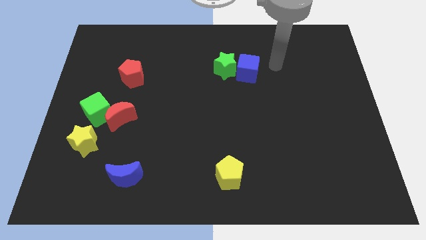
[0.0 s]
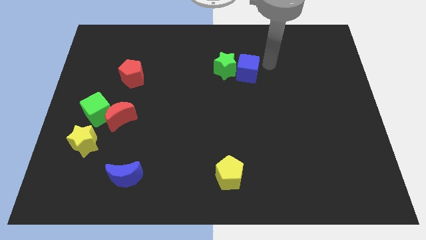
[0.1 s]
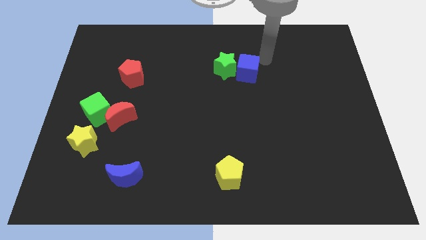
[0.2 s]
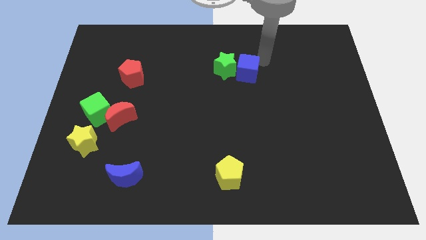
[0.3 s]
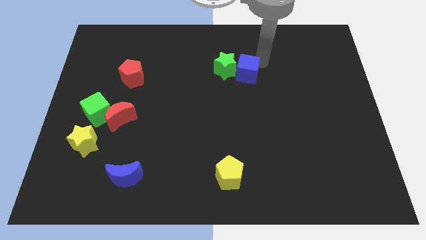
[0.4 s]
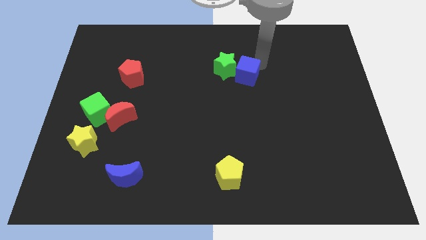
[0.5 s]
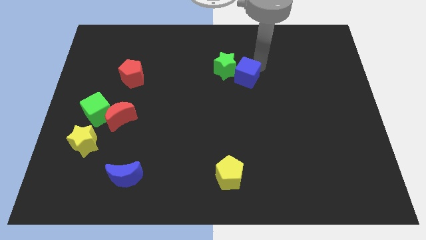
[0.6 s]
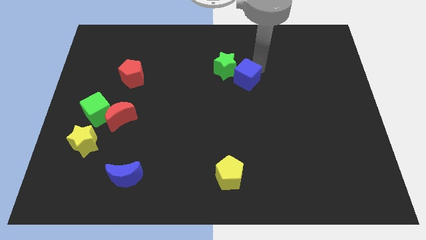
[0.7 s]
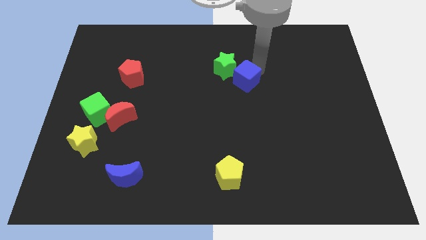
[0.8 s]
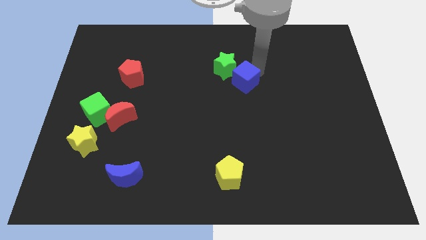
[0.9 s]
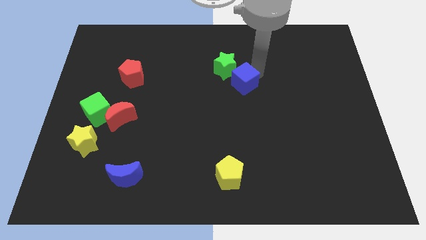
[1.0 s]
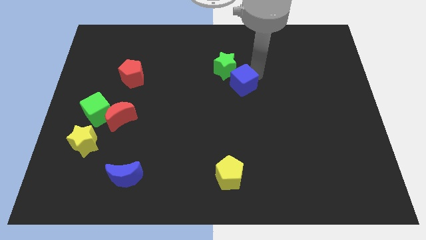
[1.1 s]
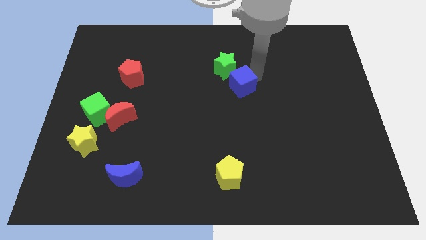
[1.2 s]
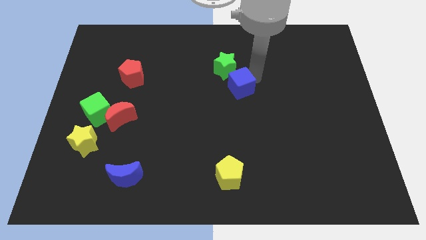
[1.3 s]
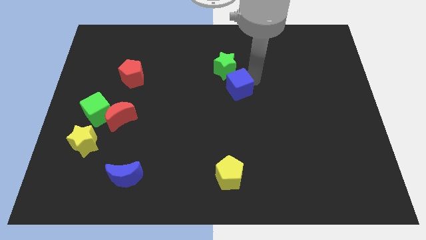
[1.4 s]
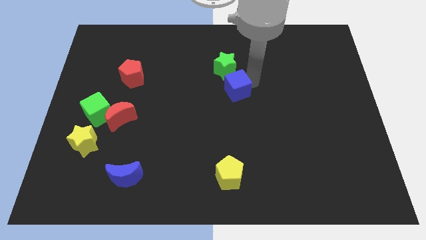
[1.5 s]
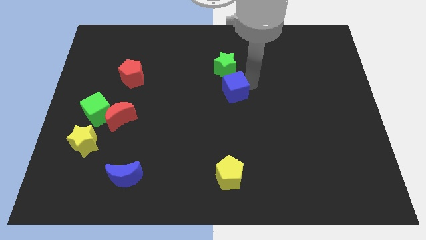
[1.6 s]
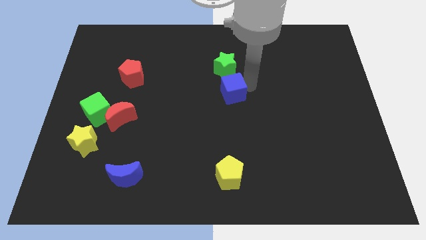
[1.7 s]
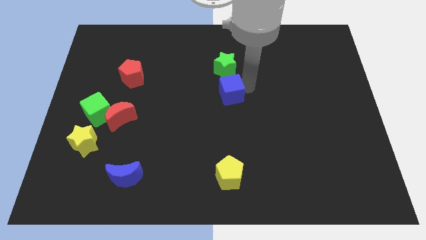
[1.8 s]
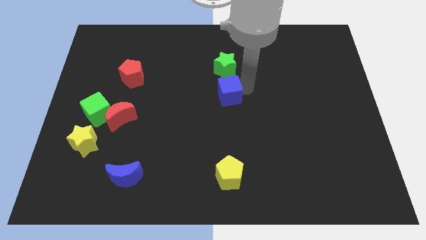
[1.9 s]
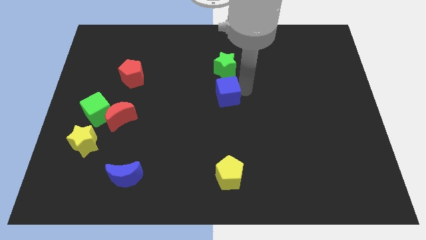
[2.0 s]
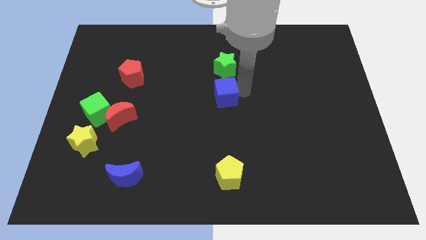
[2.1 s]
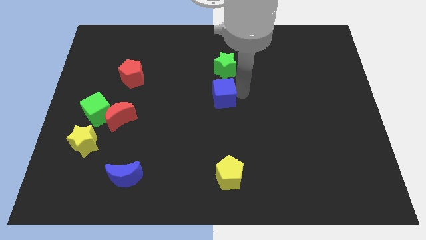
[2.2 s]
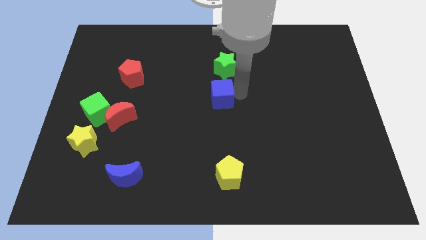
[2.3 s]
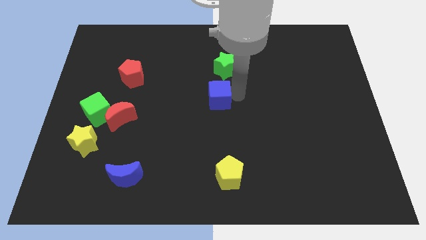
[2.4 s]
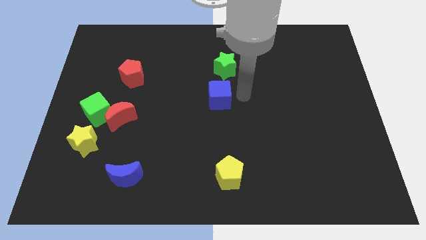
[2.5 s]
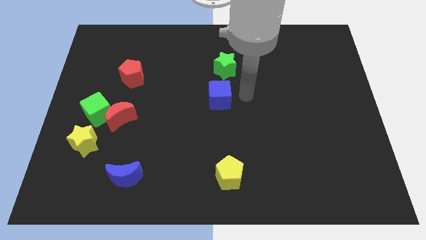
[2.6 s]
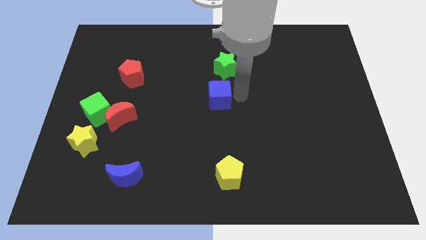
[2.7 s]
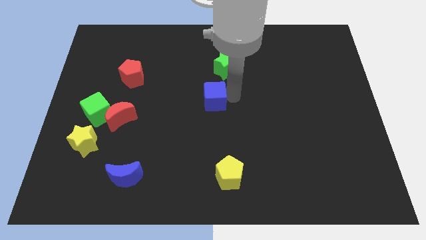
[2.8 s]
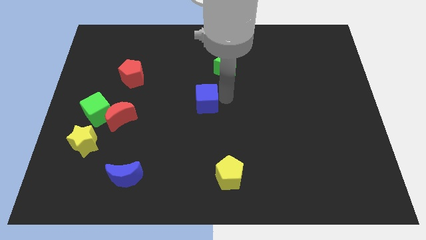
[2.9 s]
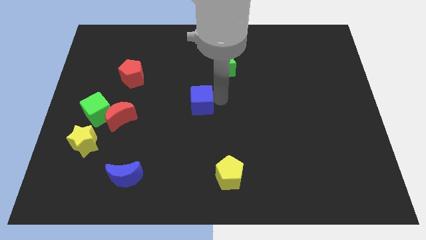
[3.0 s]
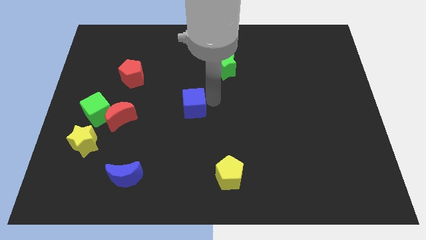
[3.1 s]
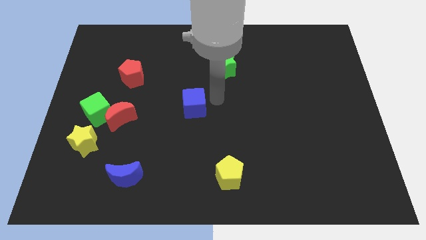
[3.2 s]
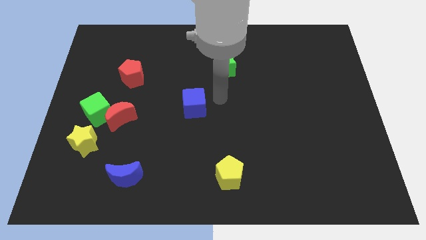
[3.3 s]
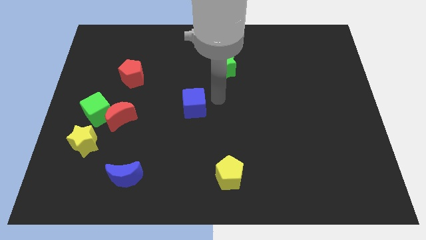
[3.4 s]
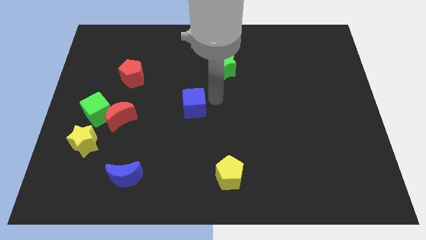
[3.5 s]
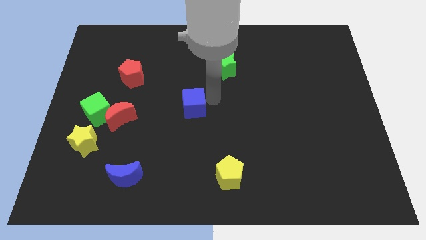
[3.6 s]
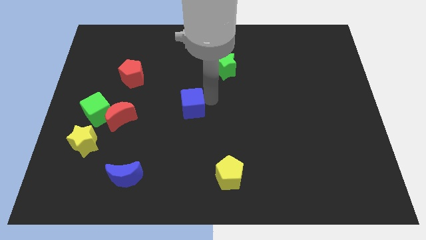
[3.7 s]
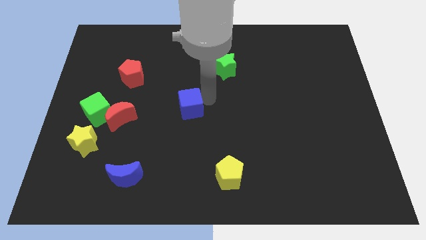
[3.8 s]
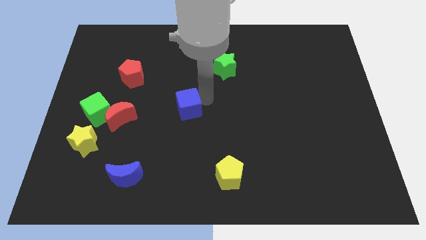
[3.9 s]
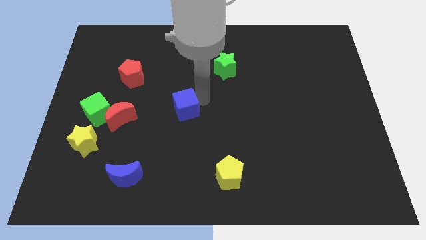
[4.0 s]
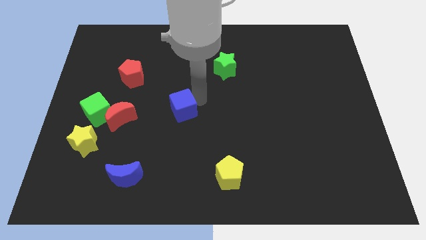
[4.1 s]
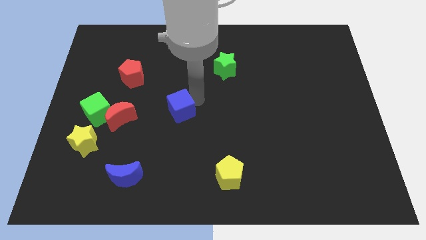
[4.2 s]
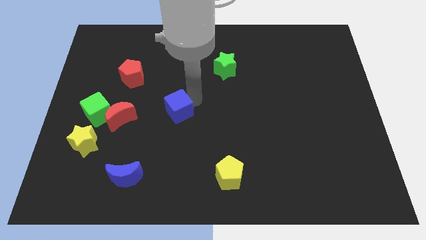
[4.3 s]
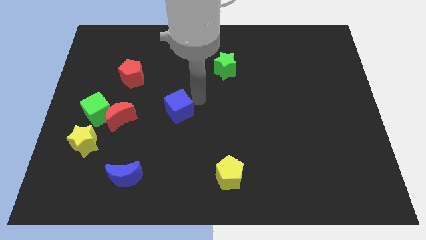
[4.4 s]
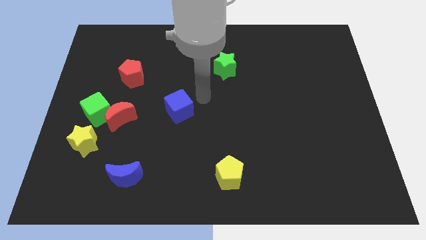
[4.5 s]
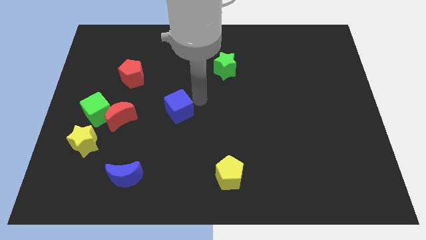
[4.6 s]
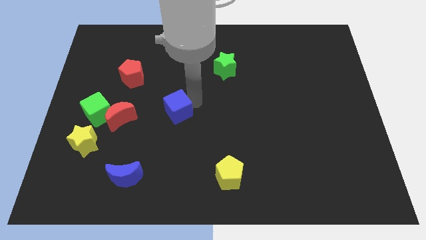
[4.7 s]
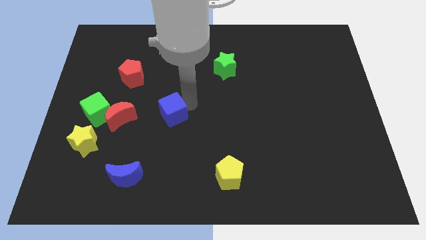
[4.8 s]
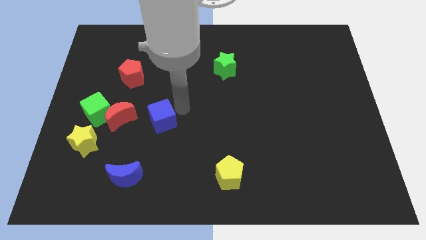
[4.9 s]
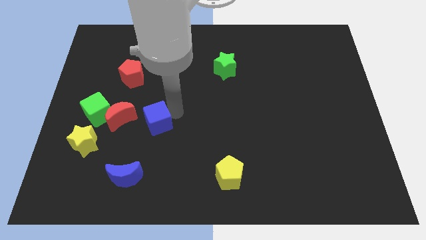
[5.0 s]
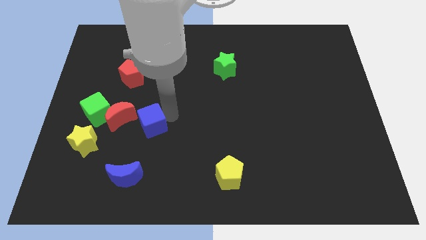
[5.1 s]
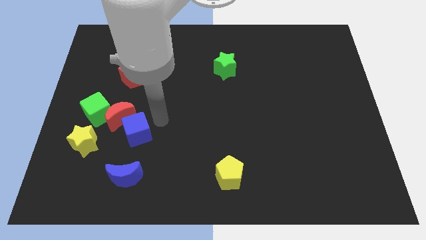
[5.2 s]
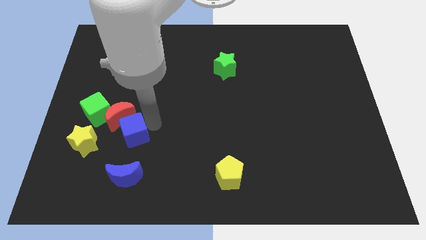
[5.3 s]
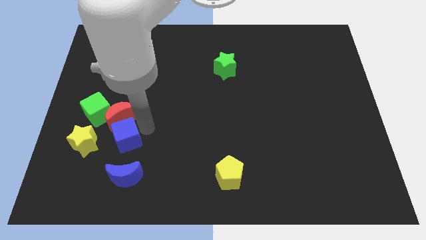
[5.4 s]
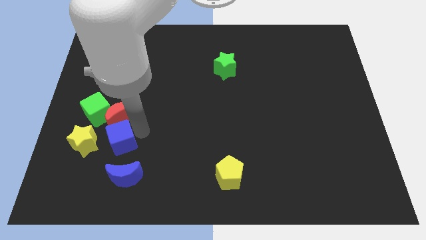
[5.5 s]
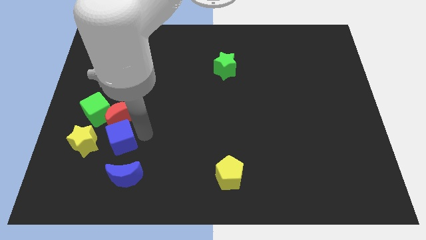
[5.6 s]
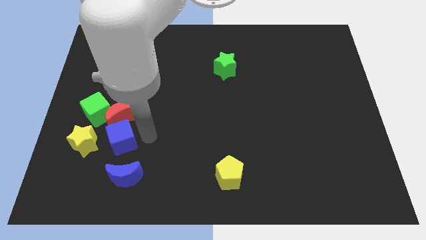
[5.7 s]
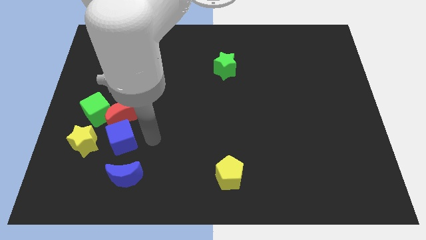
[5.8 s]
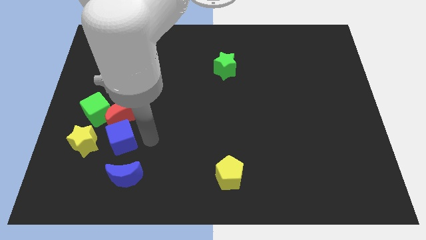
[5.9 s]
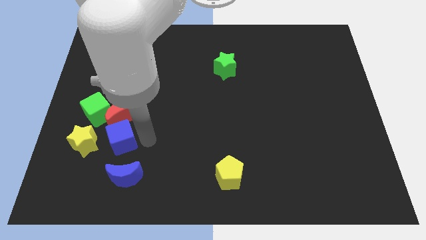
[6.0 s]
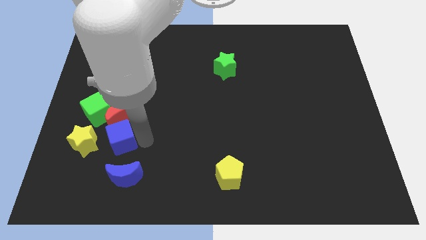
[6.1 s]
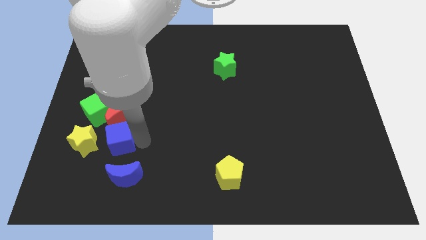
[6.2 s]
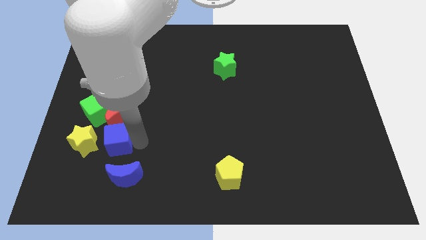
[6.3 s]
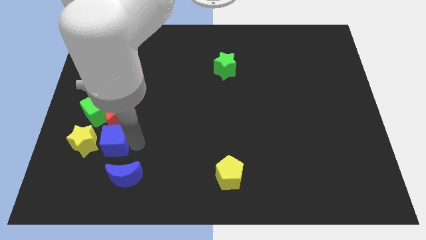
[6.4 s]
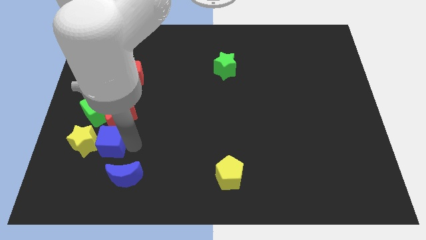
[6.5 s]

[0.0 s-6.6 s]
slide the blue cube to the yellow star

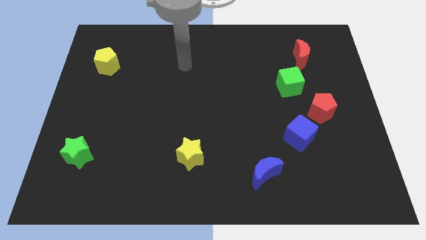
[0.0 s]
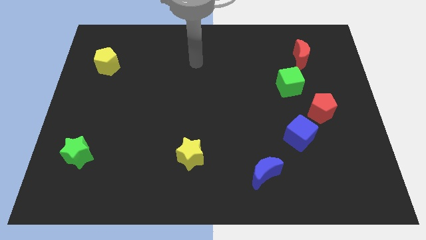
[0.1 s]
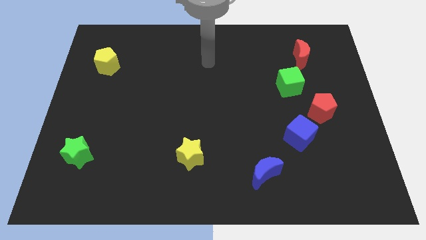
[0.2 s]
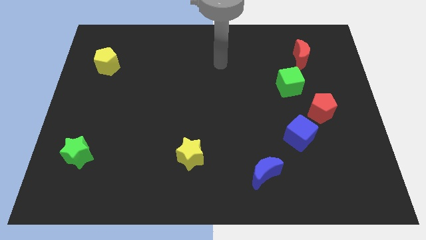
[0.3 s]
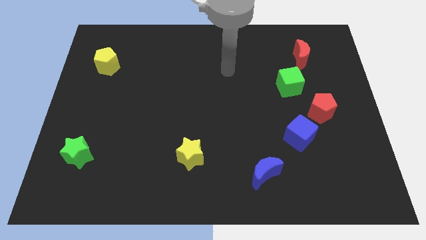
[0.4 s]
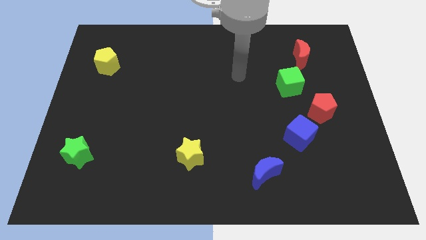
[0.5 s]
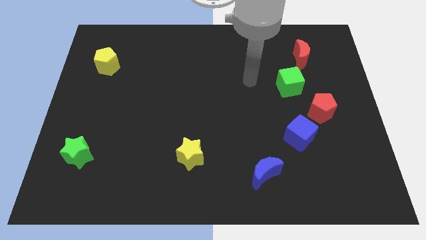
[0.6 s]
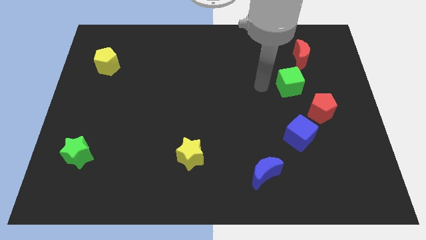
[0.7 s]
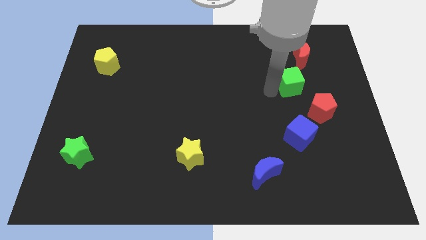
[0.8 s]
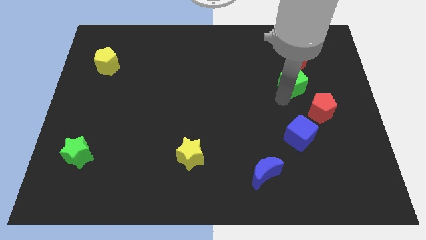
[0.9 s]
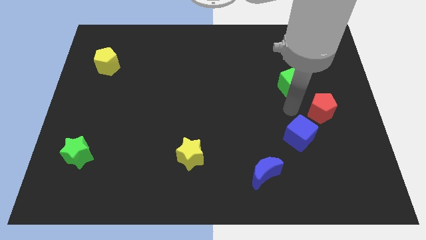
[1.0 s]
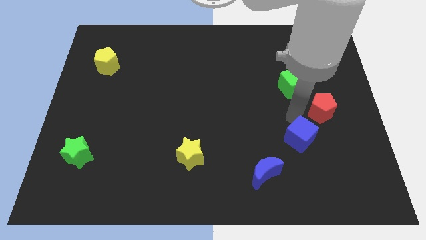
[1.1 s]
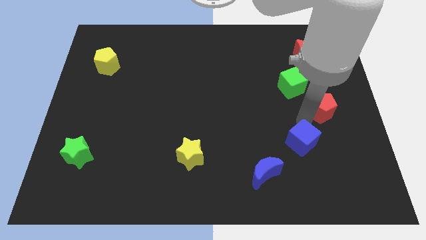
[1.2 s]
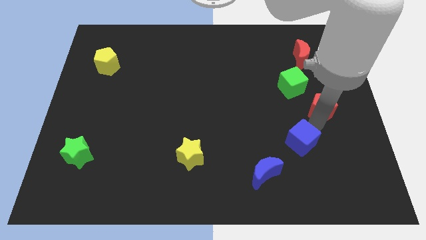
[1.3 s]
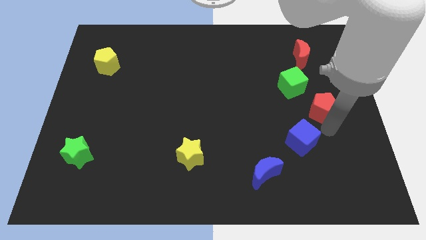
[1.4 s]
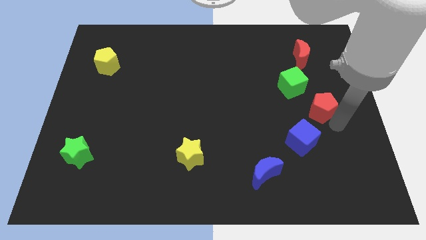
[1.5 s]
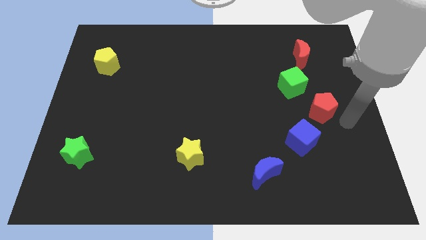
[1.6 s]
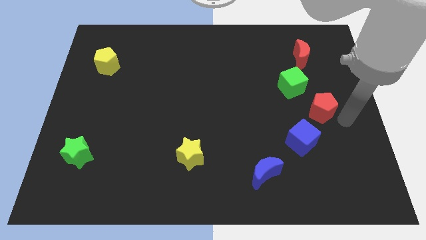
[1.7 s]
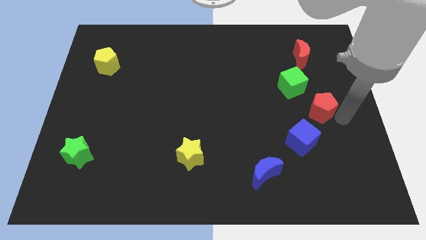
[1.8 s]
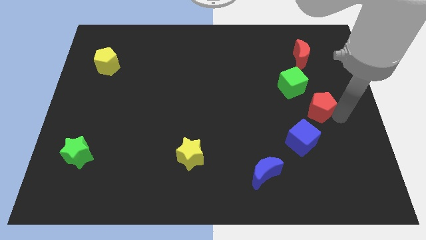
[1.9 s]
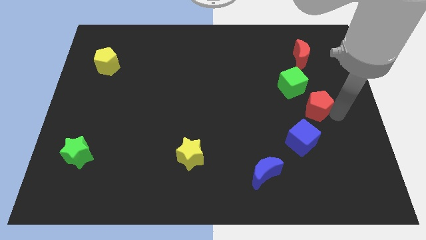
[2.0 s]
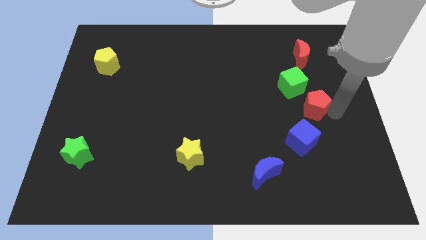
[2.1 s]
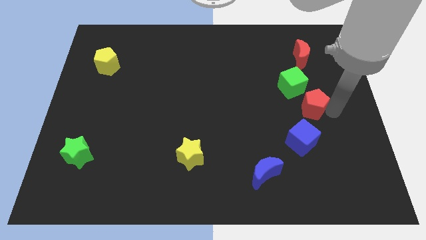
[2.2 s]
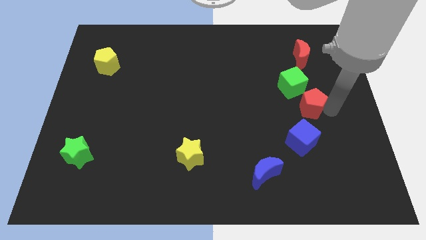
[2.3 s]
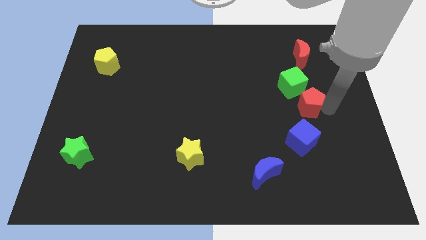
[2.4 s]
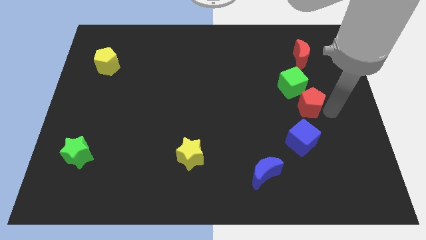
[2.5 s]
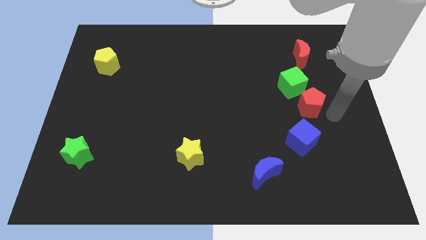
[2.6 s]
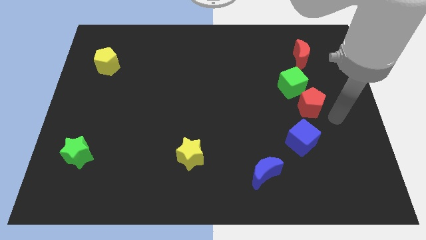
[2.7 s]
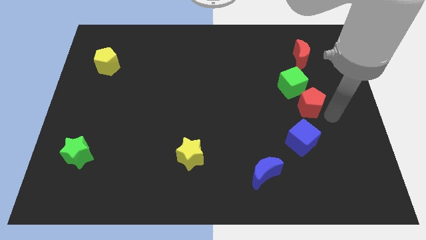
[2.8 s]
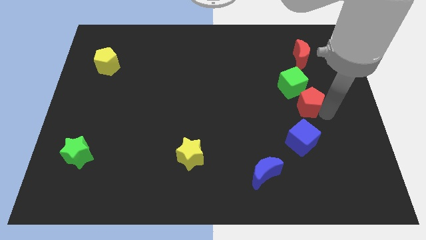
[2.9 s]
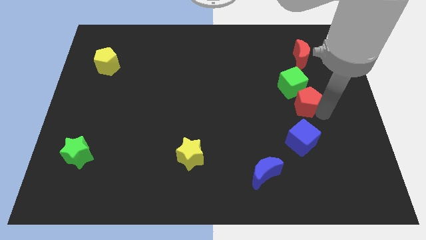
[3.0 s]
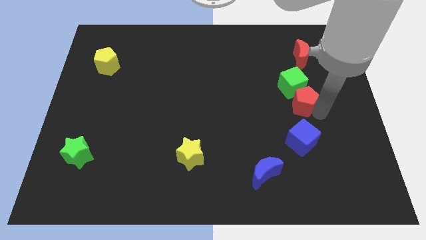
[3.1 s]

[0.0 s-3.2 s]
put the red pentagon next to the green cube
